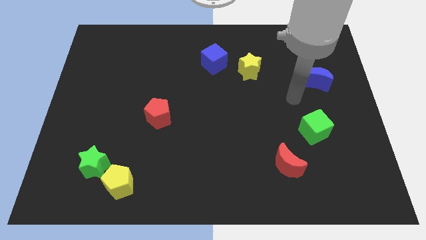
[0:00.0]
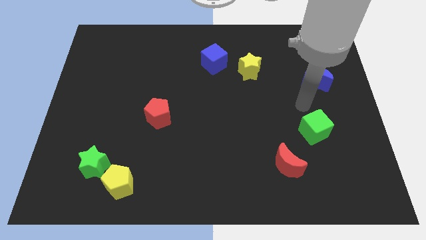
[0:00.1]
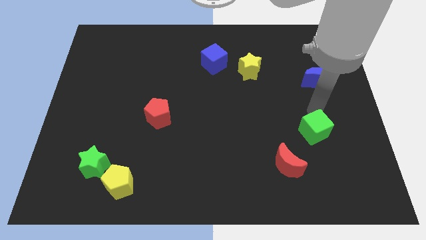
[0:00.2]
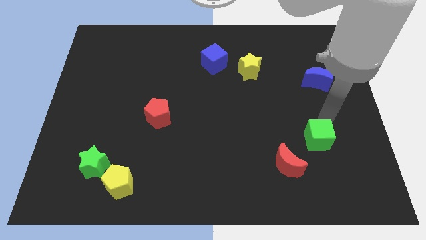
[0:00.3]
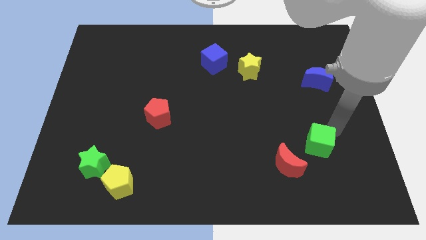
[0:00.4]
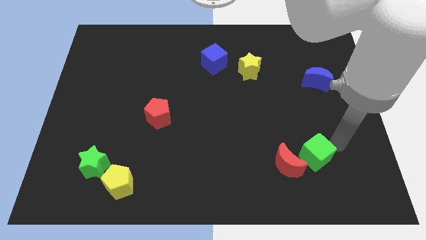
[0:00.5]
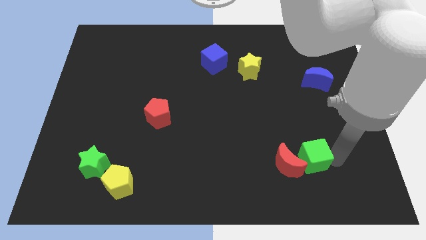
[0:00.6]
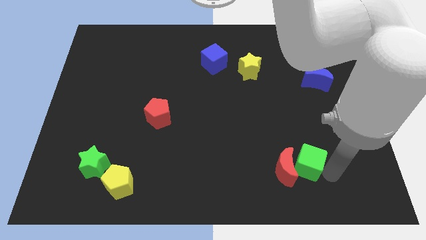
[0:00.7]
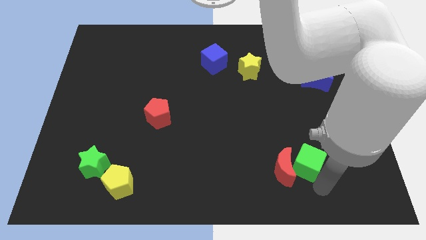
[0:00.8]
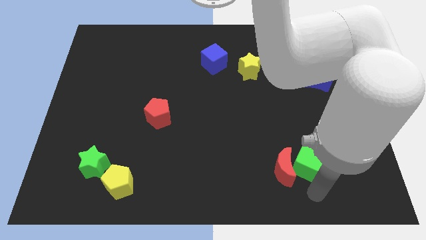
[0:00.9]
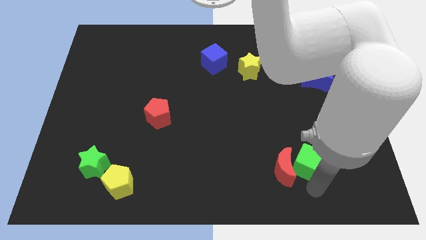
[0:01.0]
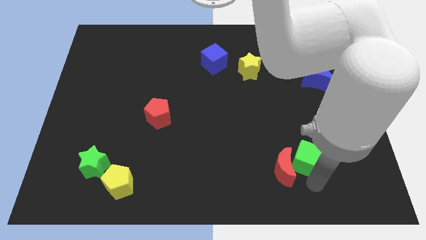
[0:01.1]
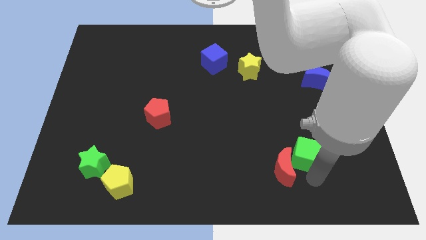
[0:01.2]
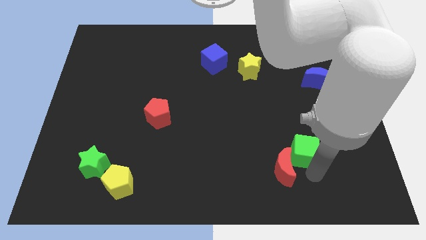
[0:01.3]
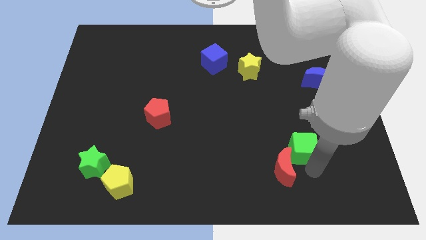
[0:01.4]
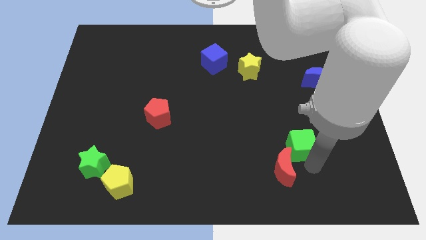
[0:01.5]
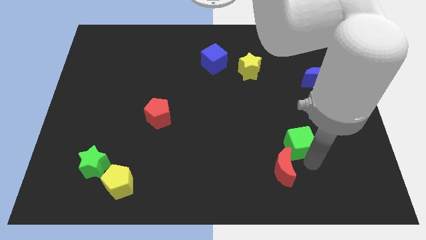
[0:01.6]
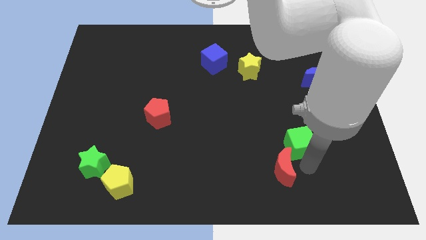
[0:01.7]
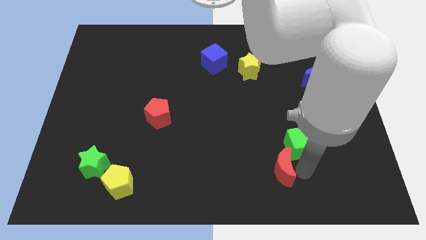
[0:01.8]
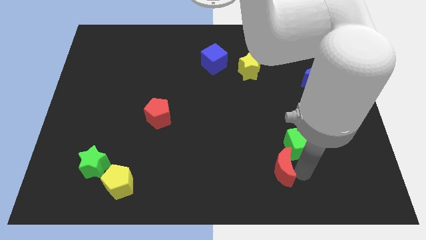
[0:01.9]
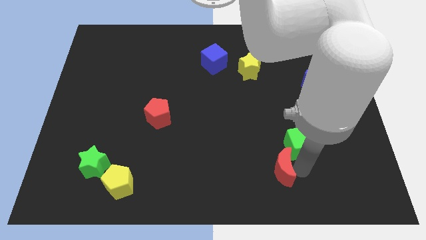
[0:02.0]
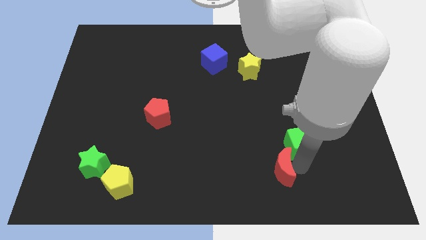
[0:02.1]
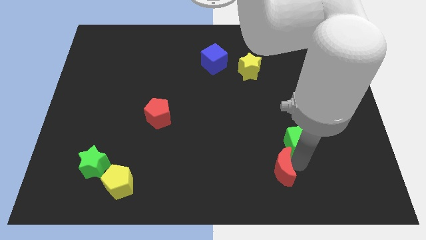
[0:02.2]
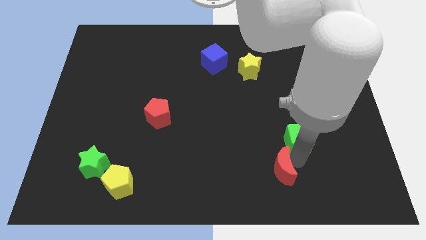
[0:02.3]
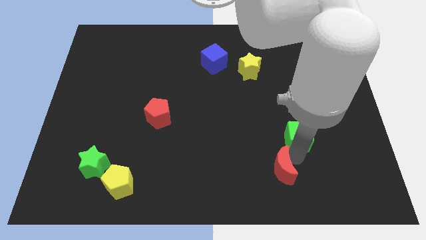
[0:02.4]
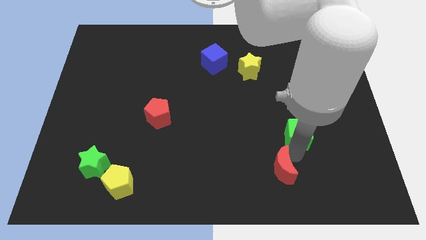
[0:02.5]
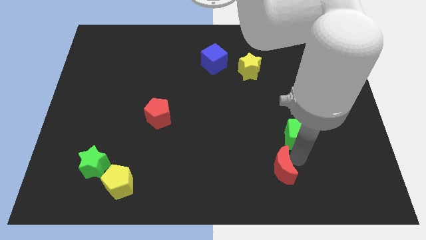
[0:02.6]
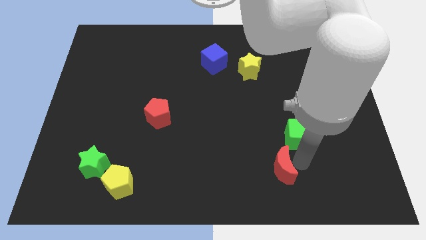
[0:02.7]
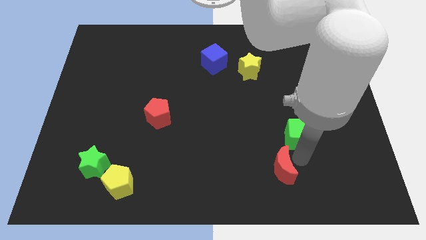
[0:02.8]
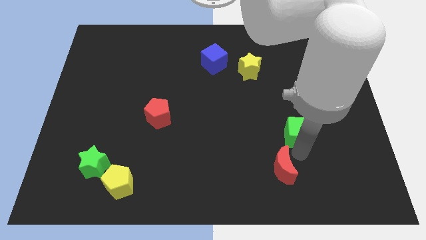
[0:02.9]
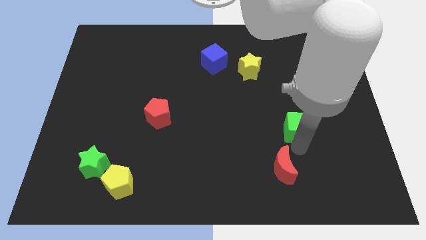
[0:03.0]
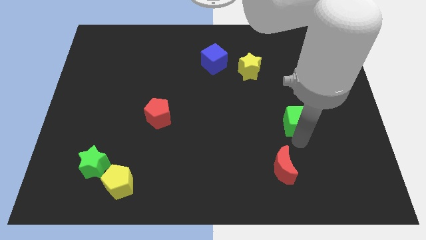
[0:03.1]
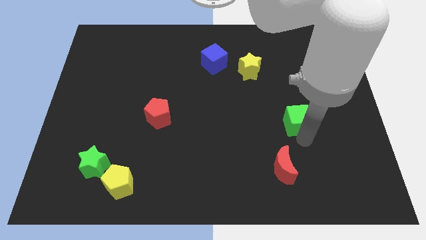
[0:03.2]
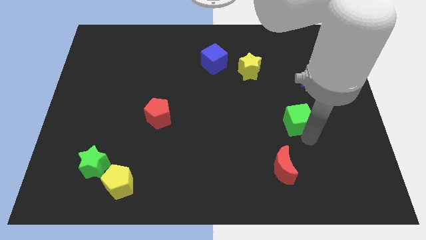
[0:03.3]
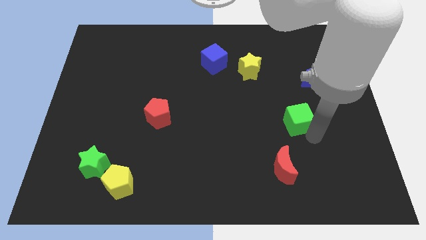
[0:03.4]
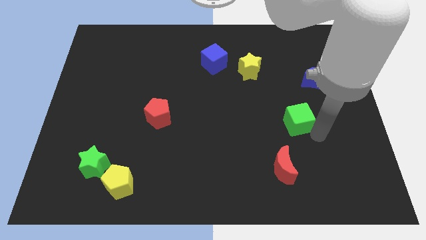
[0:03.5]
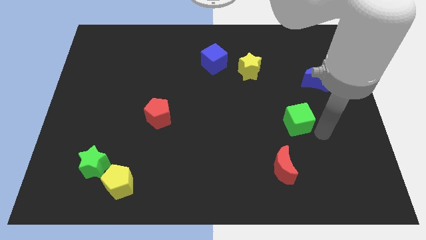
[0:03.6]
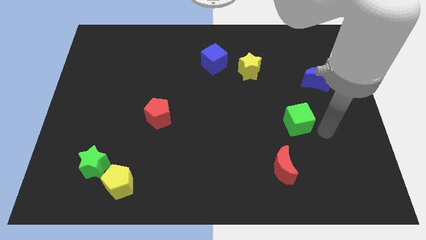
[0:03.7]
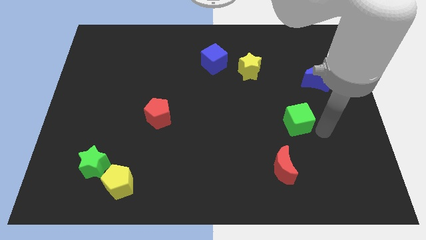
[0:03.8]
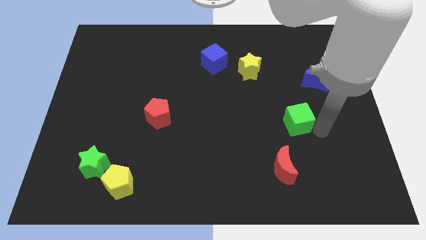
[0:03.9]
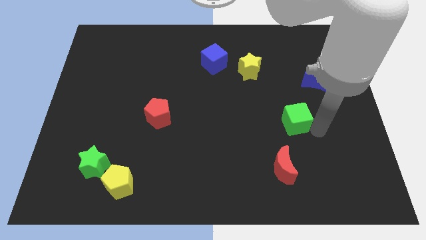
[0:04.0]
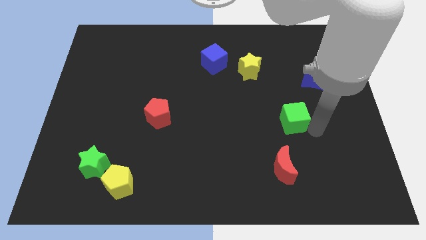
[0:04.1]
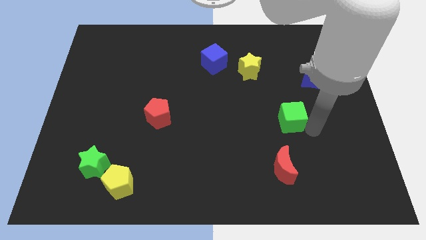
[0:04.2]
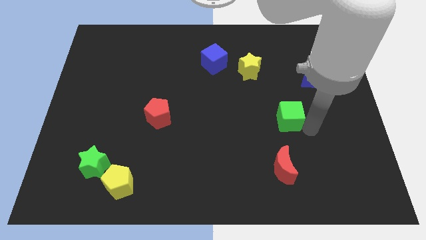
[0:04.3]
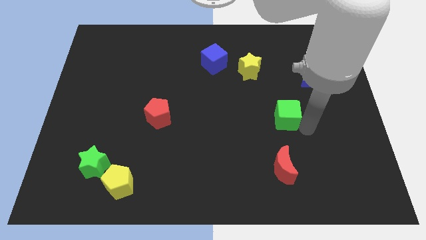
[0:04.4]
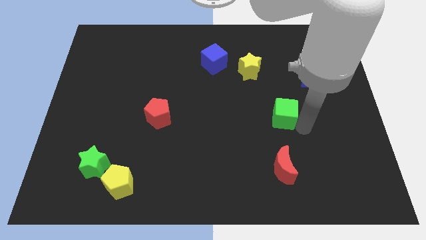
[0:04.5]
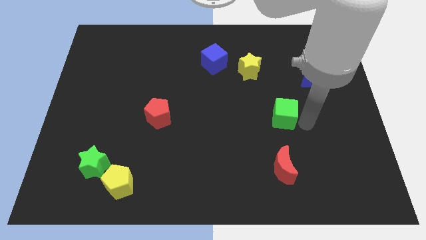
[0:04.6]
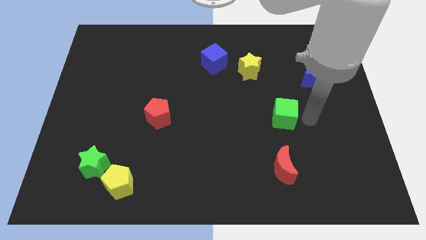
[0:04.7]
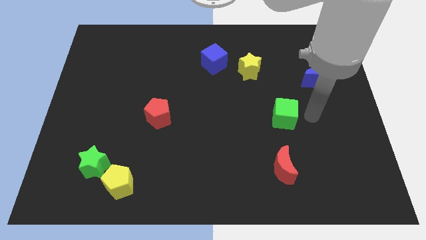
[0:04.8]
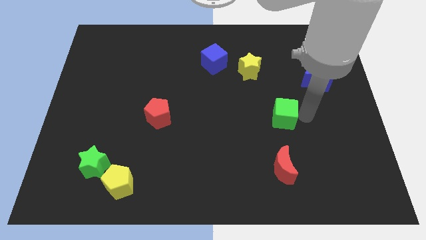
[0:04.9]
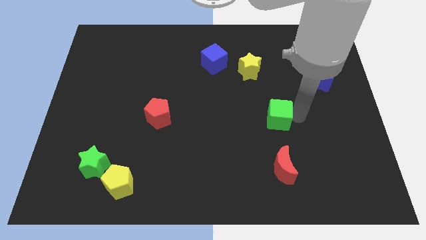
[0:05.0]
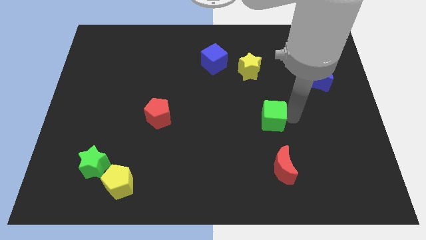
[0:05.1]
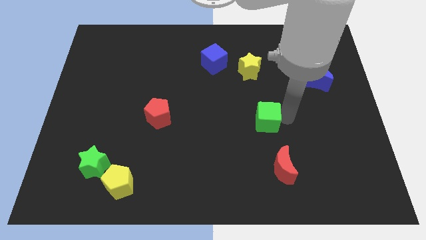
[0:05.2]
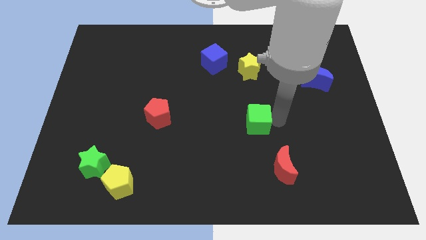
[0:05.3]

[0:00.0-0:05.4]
push the green cube to the middle

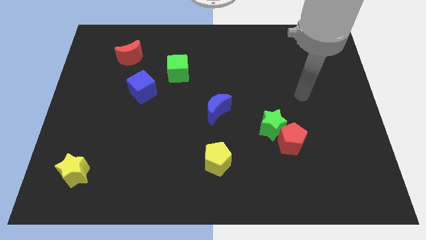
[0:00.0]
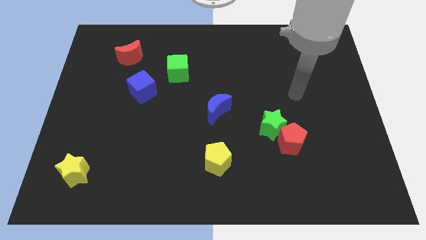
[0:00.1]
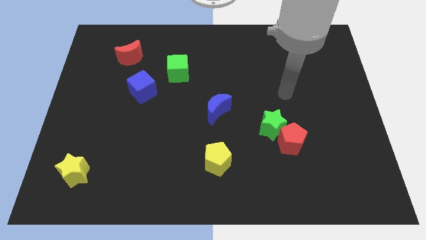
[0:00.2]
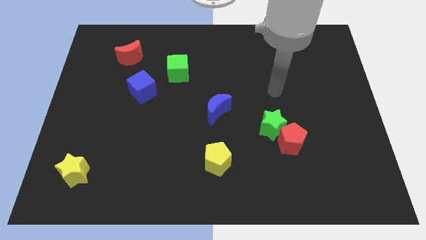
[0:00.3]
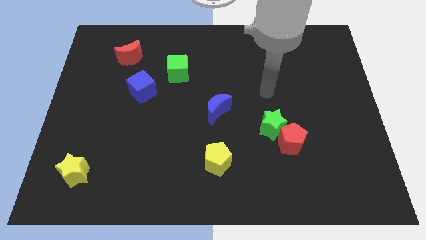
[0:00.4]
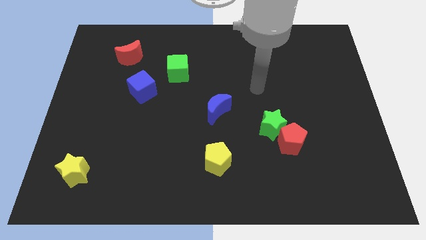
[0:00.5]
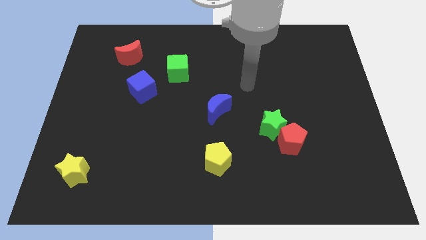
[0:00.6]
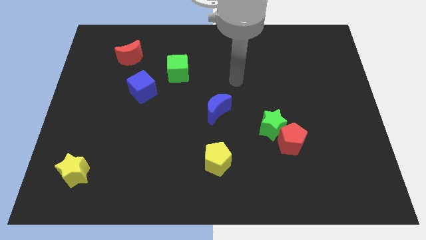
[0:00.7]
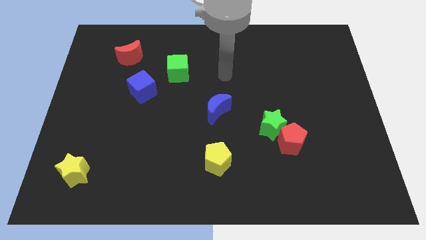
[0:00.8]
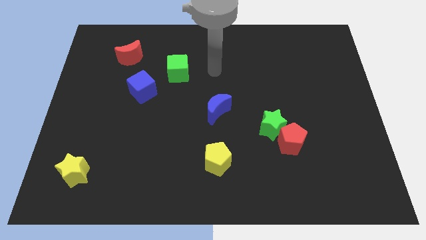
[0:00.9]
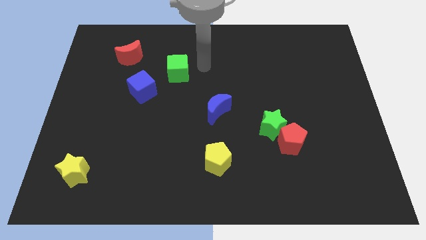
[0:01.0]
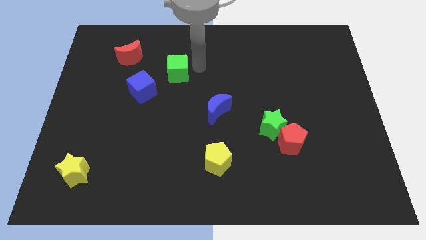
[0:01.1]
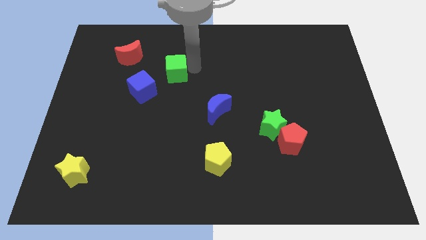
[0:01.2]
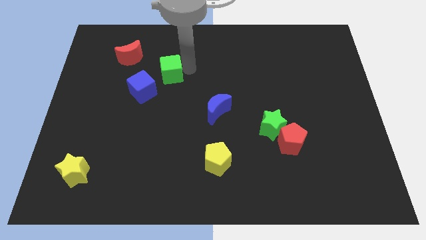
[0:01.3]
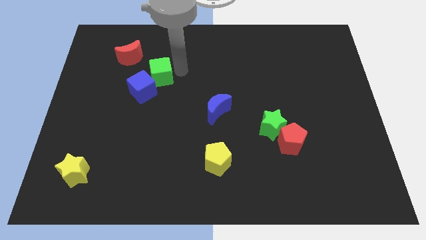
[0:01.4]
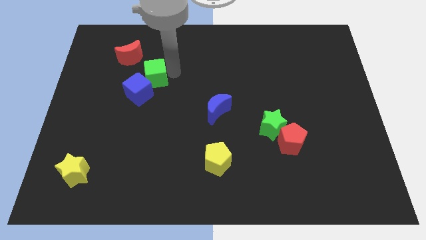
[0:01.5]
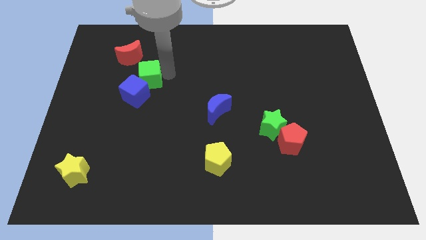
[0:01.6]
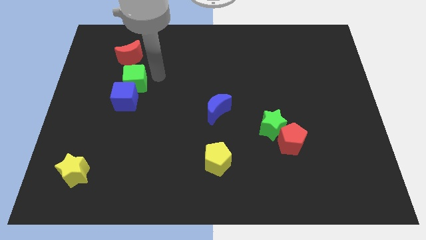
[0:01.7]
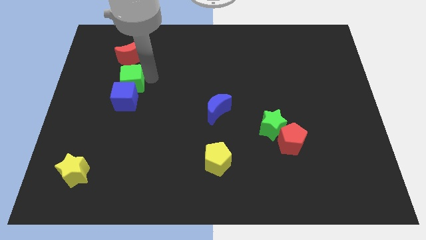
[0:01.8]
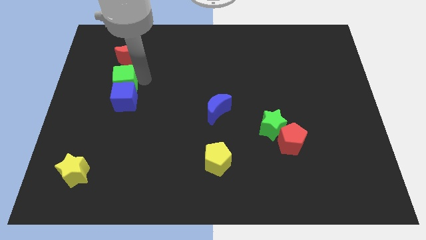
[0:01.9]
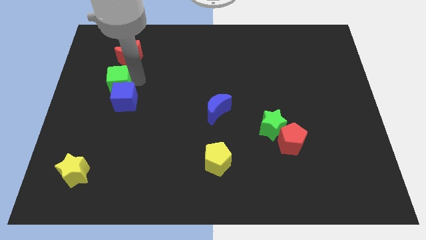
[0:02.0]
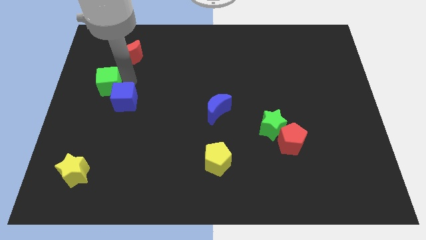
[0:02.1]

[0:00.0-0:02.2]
slide the green cube to the center left
